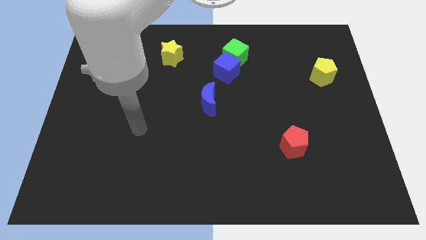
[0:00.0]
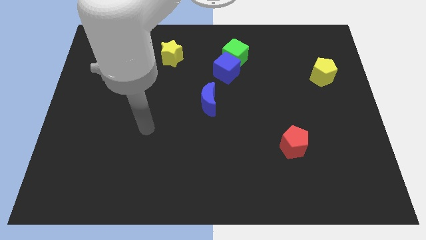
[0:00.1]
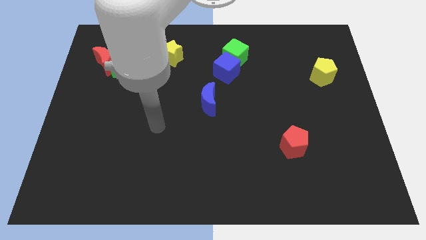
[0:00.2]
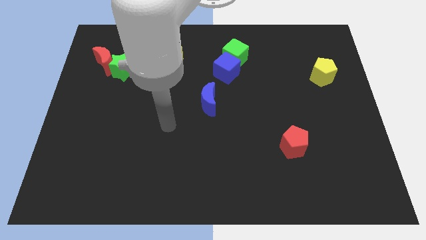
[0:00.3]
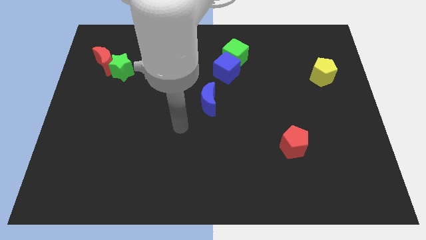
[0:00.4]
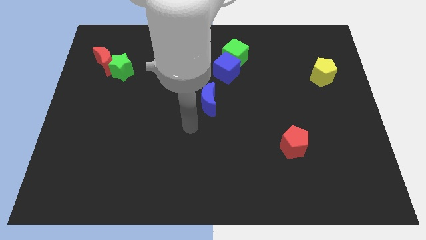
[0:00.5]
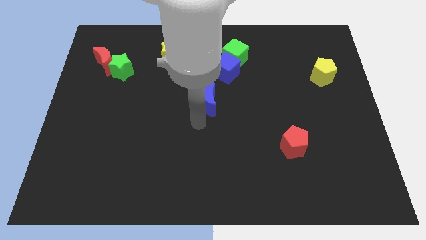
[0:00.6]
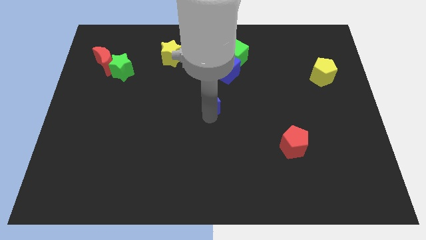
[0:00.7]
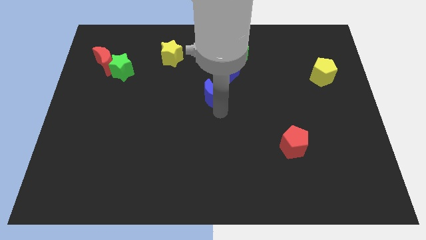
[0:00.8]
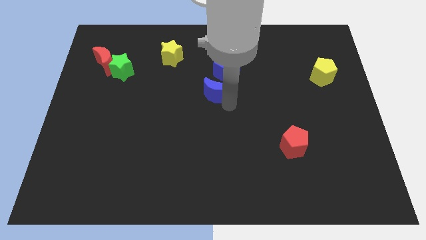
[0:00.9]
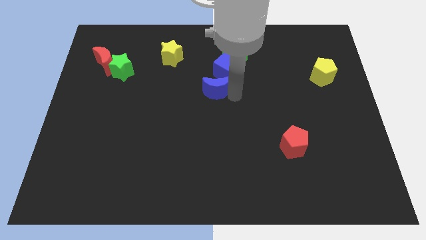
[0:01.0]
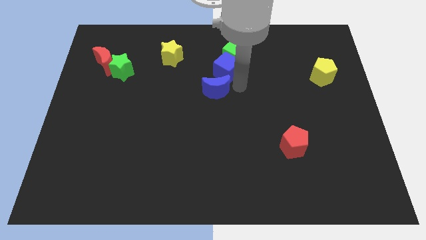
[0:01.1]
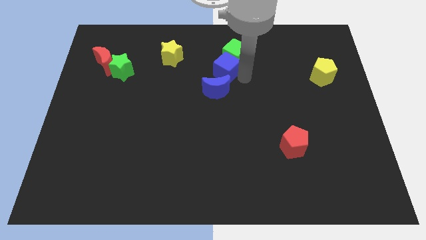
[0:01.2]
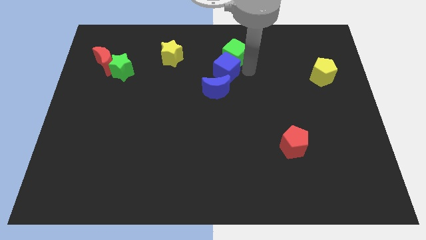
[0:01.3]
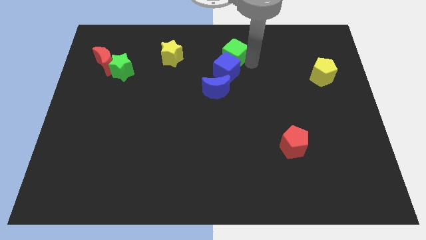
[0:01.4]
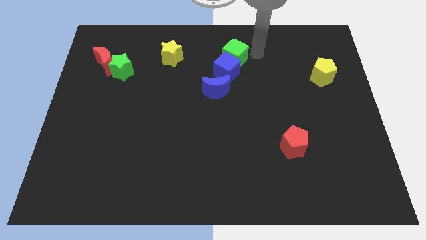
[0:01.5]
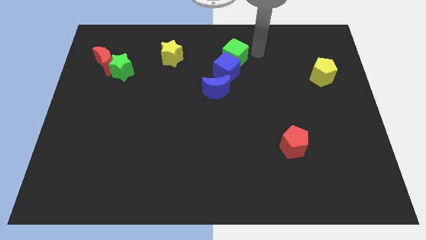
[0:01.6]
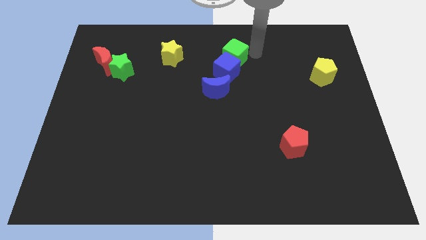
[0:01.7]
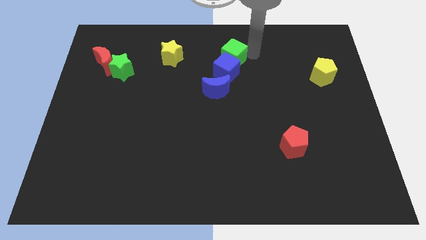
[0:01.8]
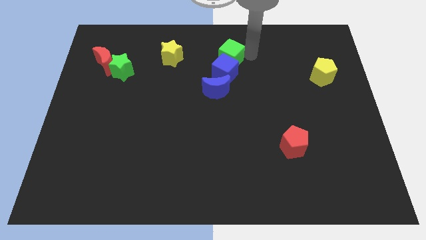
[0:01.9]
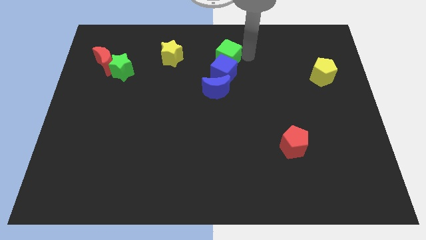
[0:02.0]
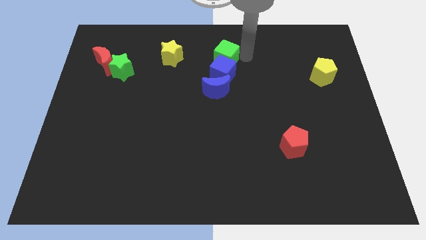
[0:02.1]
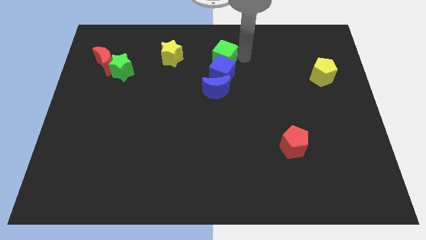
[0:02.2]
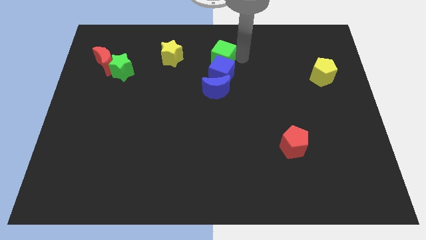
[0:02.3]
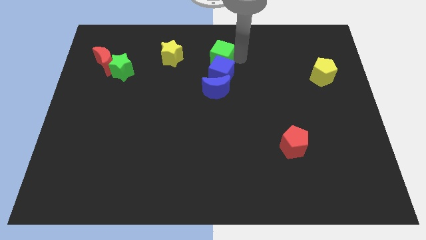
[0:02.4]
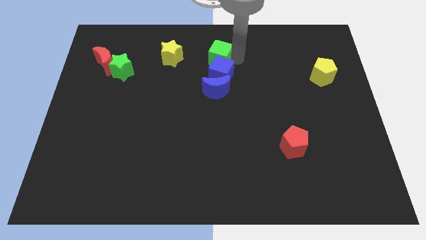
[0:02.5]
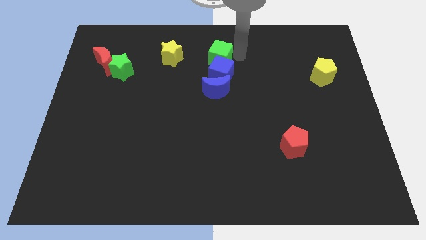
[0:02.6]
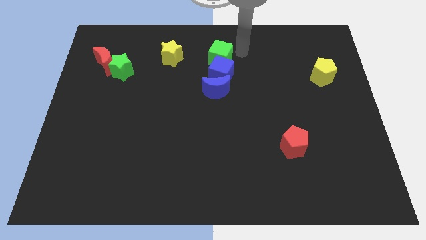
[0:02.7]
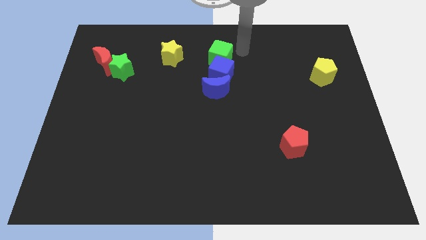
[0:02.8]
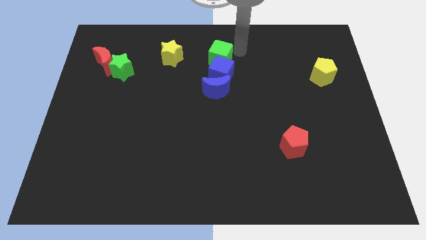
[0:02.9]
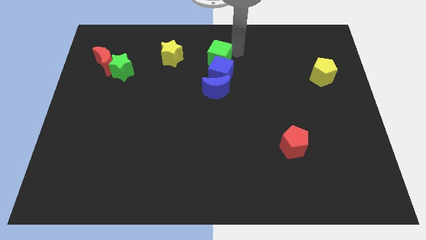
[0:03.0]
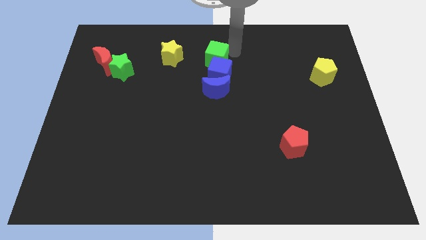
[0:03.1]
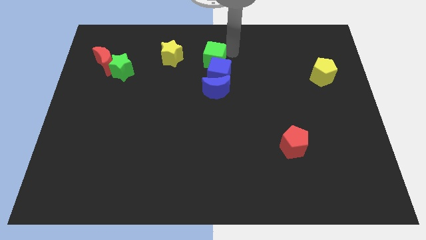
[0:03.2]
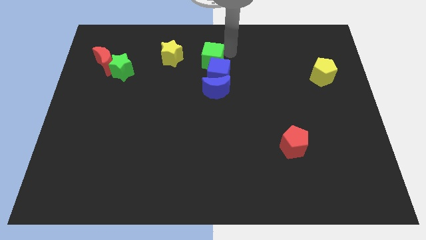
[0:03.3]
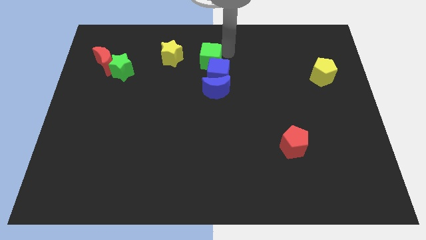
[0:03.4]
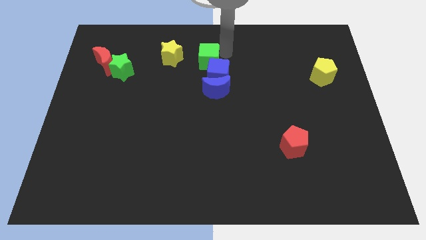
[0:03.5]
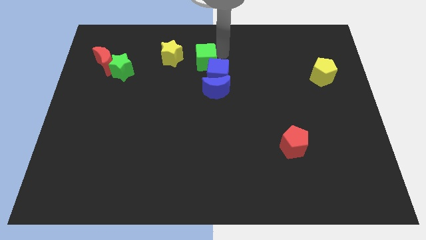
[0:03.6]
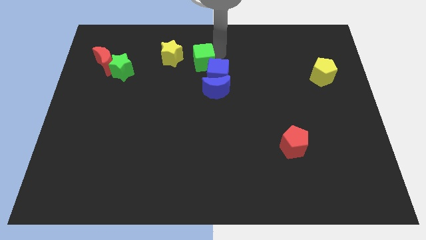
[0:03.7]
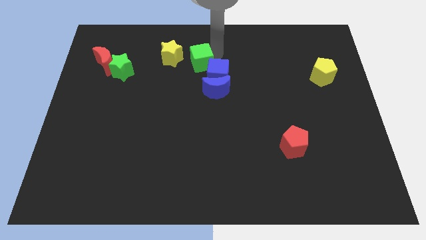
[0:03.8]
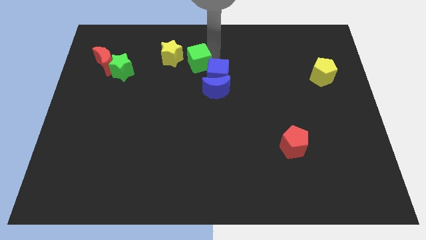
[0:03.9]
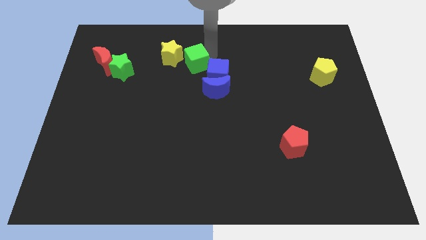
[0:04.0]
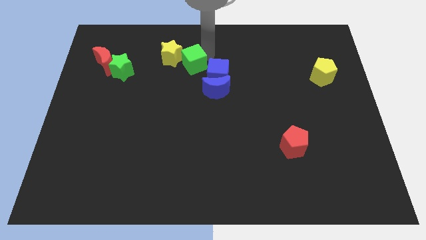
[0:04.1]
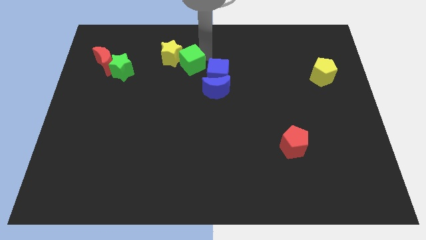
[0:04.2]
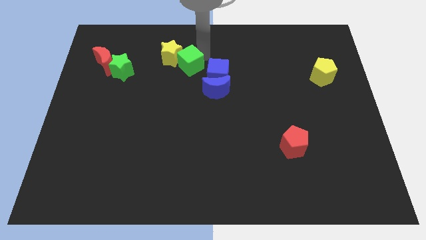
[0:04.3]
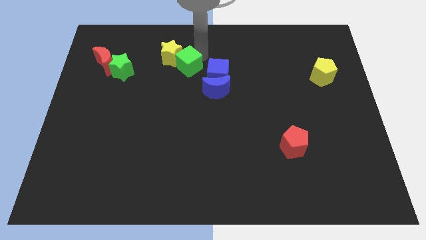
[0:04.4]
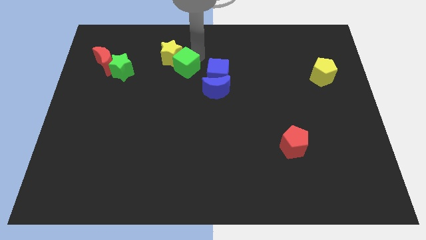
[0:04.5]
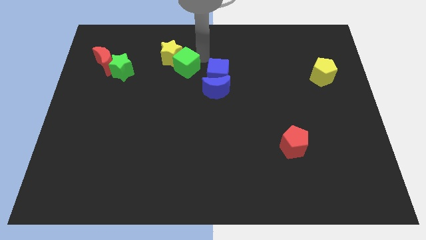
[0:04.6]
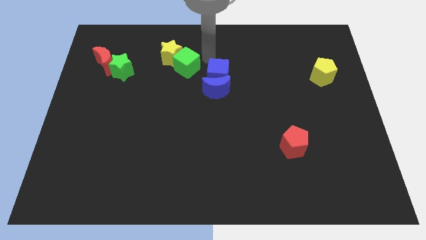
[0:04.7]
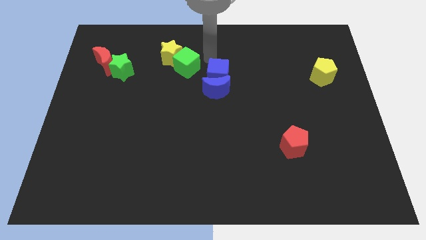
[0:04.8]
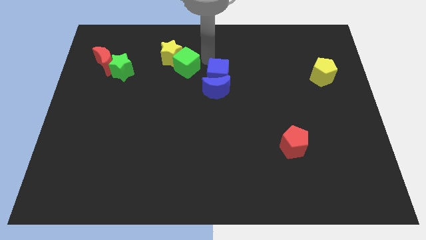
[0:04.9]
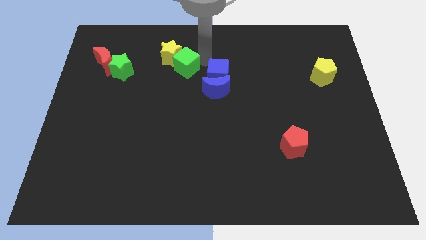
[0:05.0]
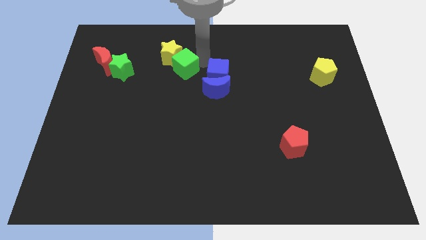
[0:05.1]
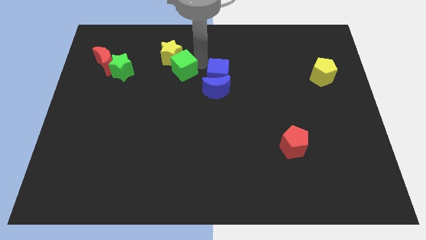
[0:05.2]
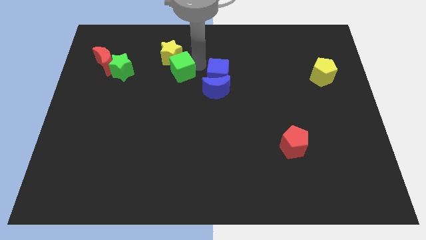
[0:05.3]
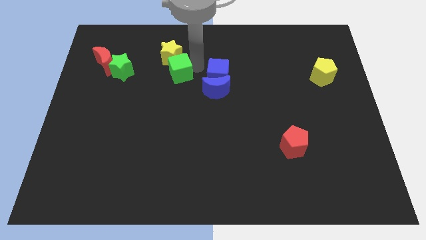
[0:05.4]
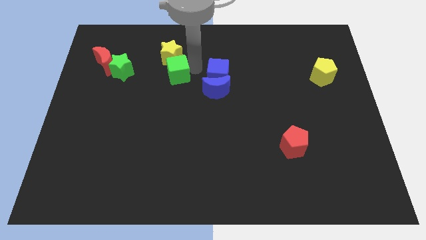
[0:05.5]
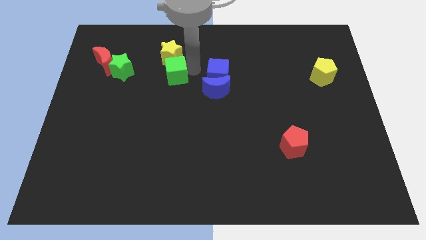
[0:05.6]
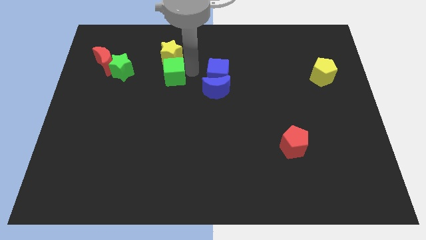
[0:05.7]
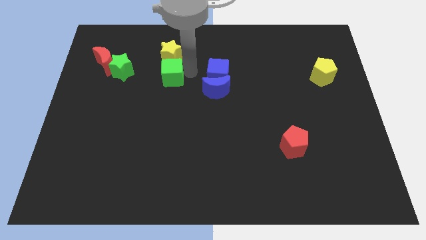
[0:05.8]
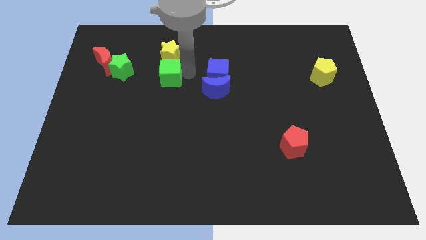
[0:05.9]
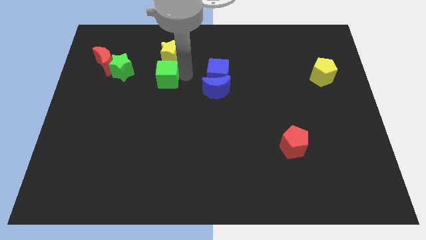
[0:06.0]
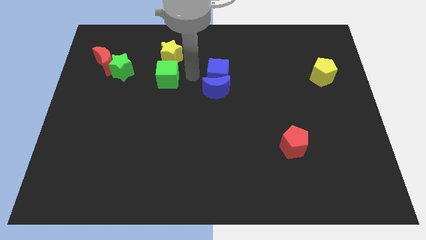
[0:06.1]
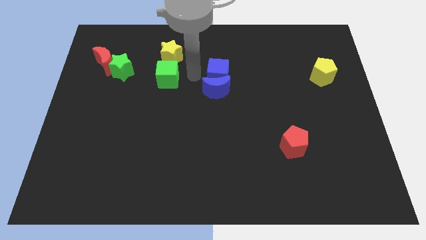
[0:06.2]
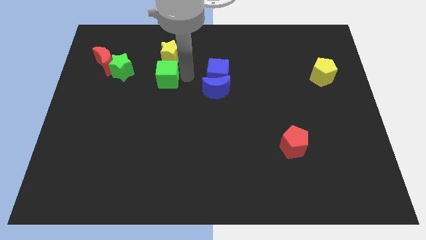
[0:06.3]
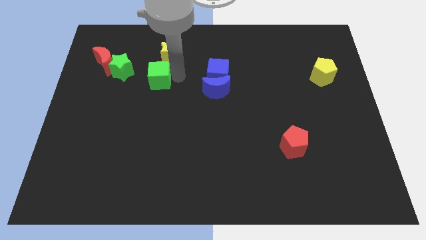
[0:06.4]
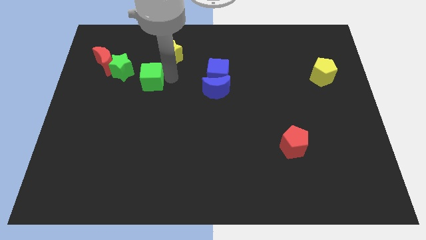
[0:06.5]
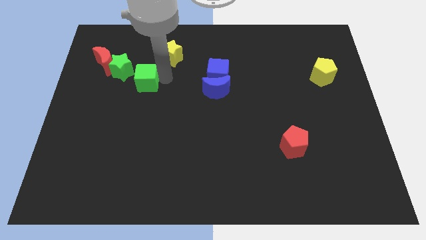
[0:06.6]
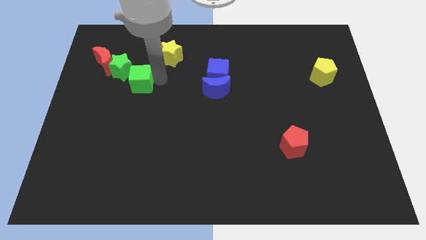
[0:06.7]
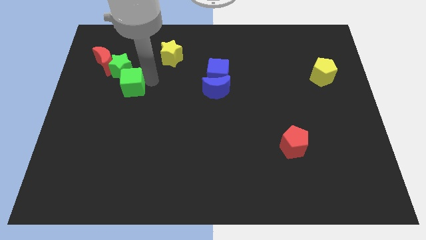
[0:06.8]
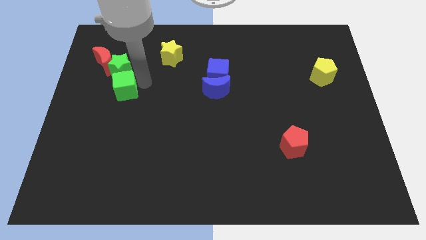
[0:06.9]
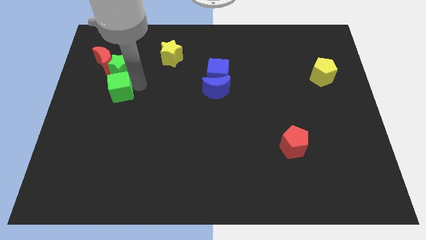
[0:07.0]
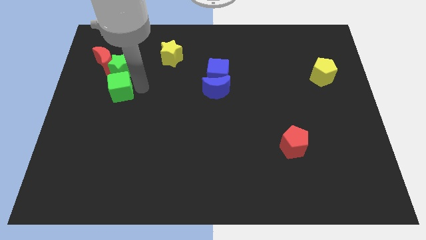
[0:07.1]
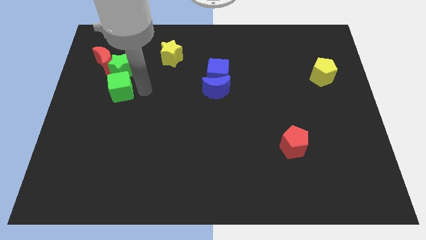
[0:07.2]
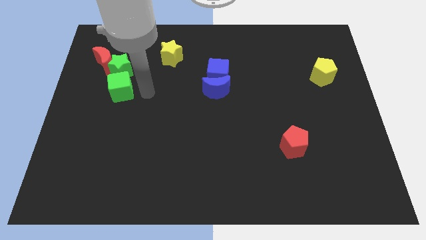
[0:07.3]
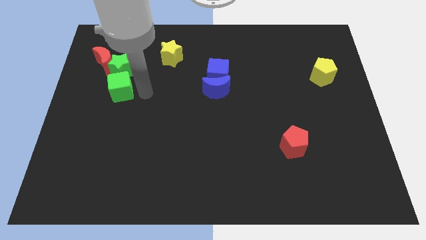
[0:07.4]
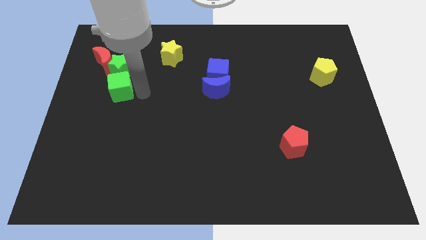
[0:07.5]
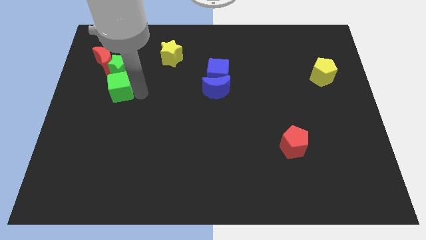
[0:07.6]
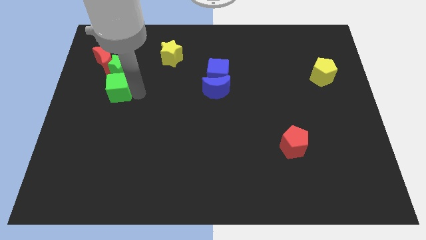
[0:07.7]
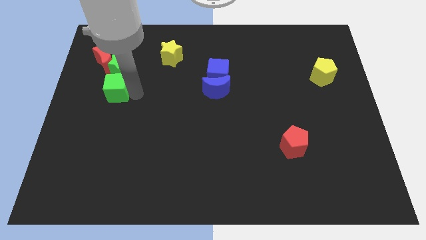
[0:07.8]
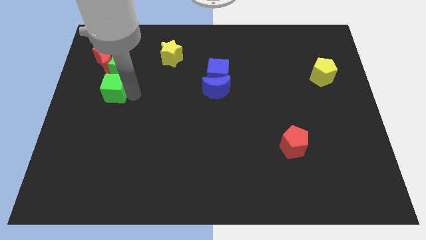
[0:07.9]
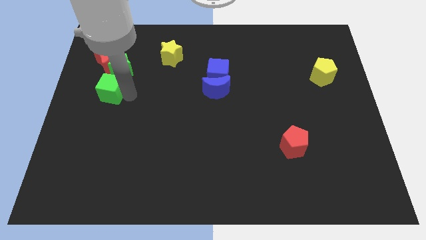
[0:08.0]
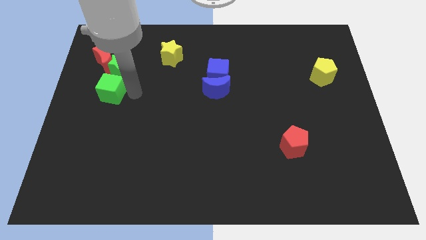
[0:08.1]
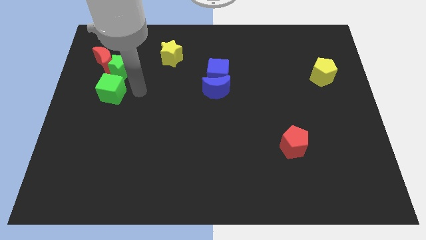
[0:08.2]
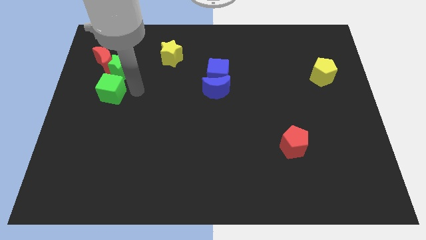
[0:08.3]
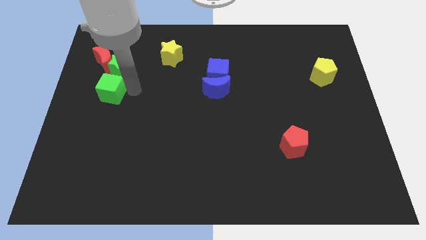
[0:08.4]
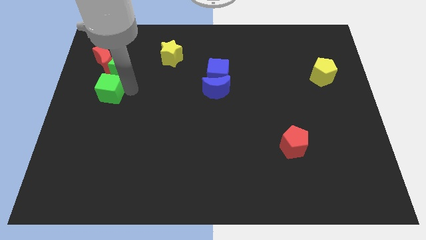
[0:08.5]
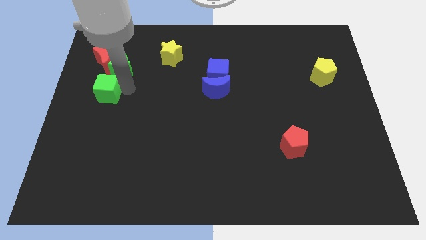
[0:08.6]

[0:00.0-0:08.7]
put the green cube to the center left
